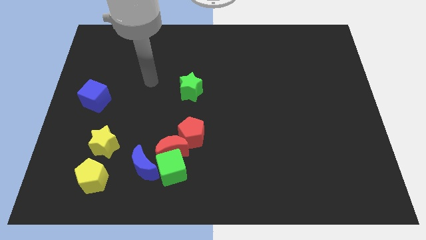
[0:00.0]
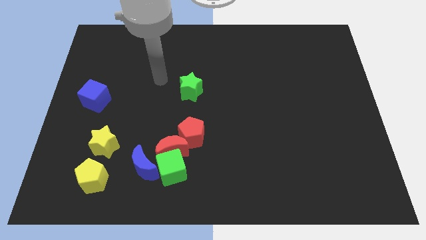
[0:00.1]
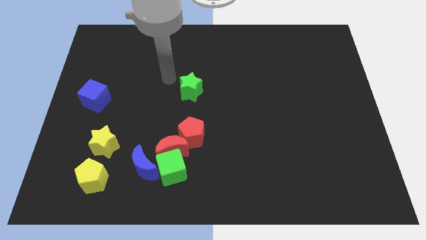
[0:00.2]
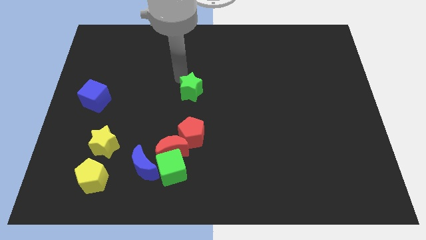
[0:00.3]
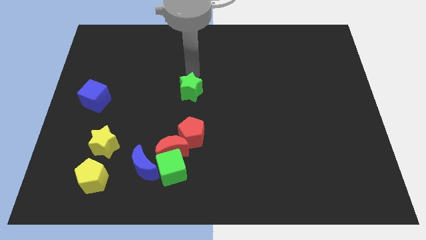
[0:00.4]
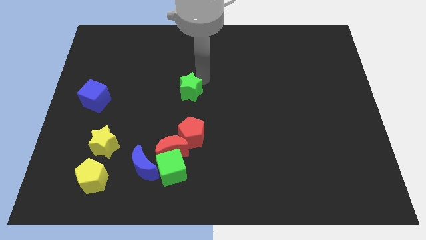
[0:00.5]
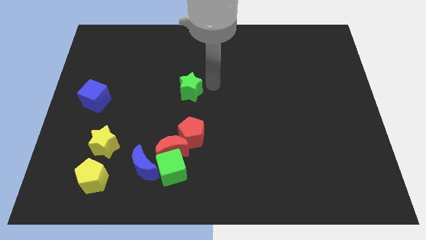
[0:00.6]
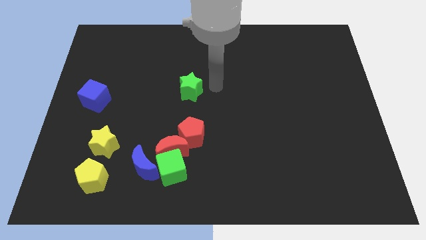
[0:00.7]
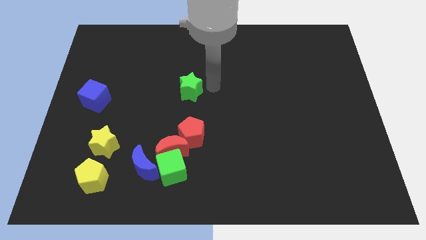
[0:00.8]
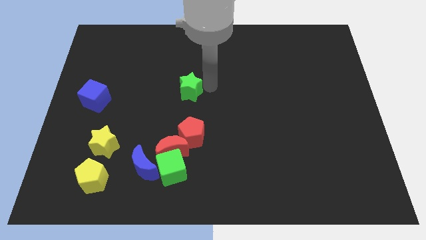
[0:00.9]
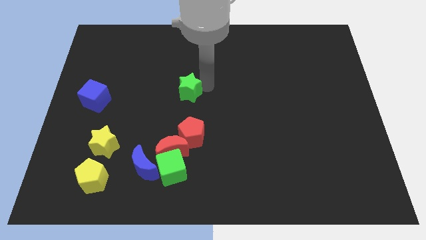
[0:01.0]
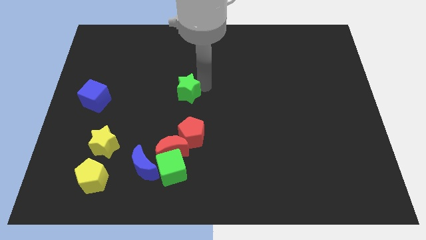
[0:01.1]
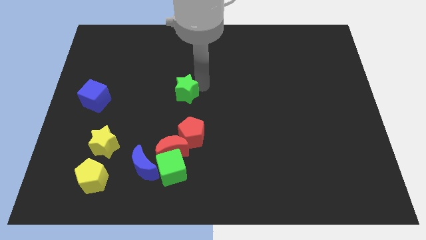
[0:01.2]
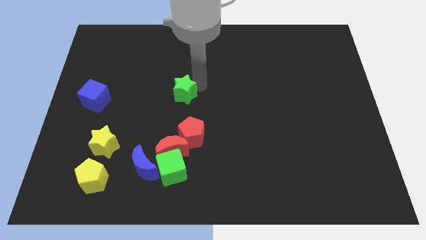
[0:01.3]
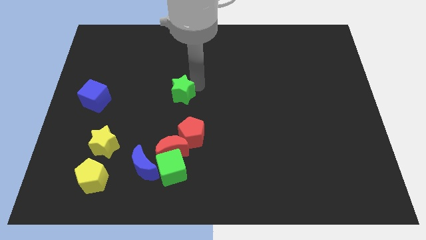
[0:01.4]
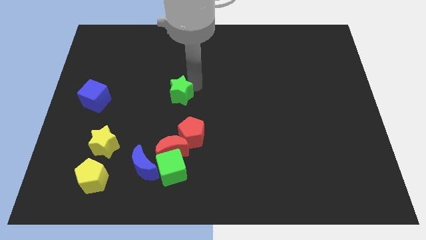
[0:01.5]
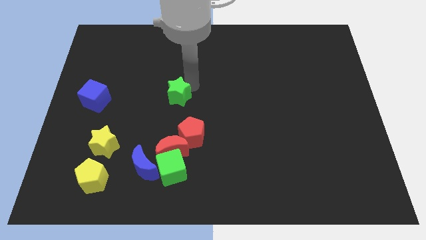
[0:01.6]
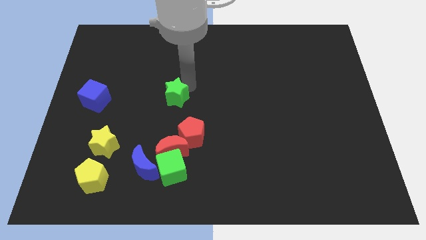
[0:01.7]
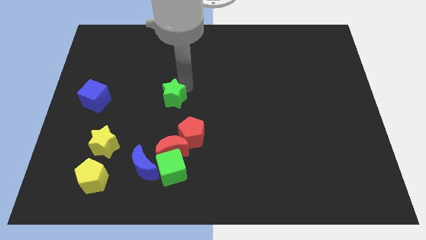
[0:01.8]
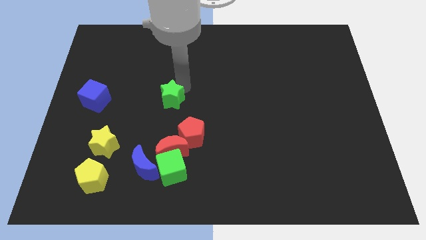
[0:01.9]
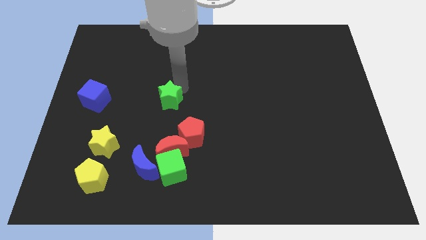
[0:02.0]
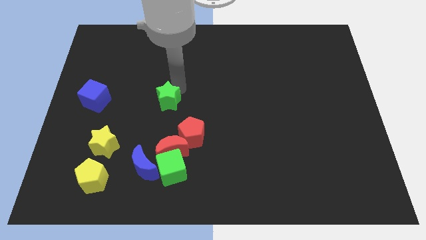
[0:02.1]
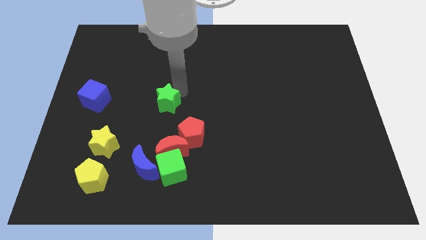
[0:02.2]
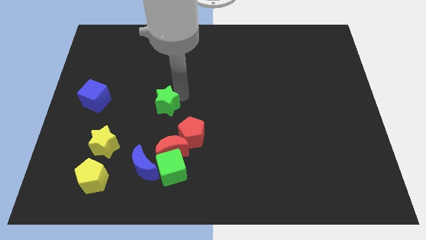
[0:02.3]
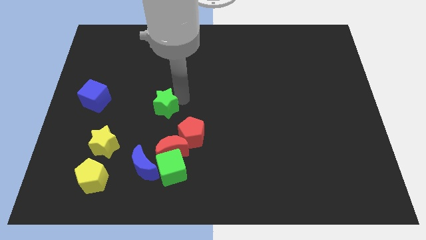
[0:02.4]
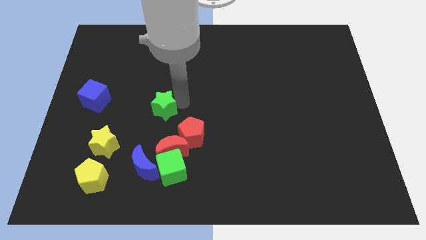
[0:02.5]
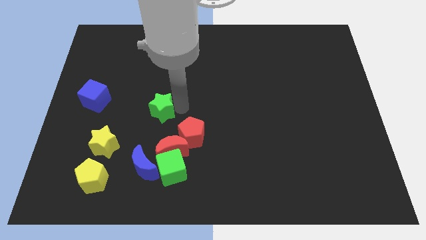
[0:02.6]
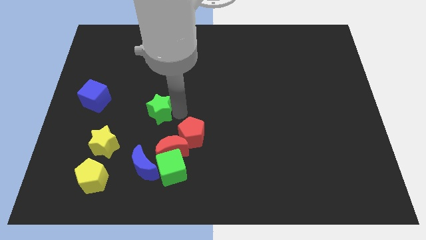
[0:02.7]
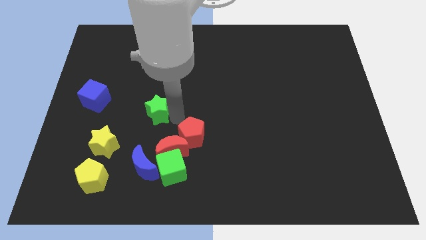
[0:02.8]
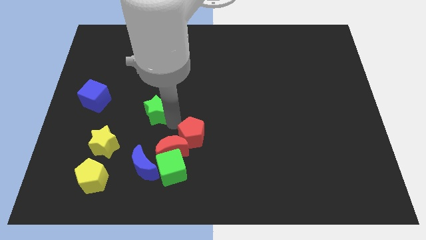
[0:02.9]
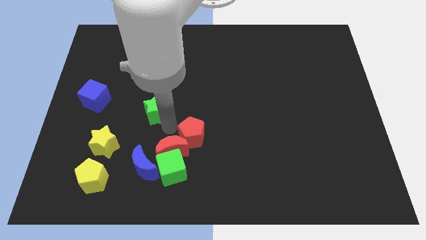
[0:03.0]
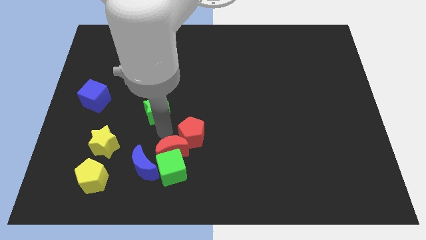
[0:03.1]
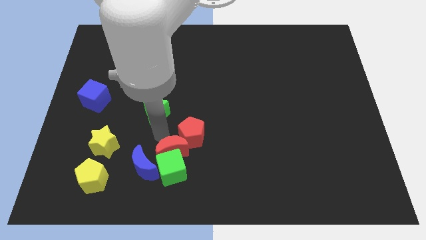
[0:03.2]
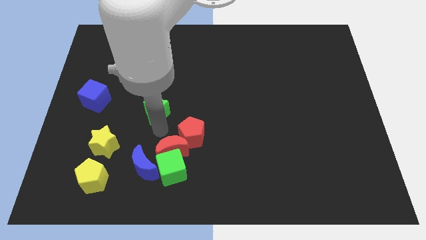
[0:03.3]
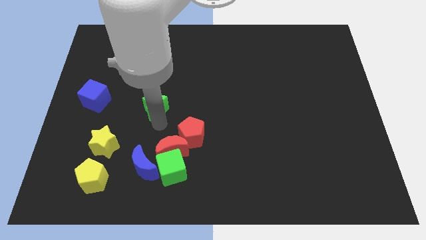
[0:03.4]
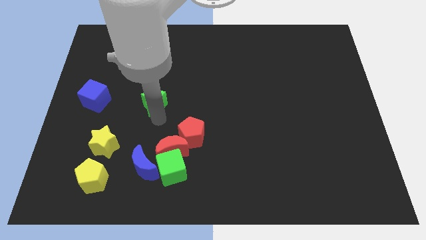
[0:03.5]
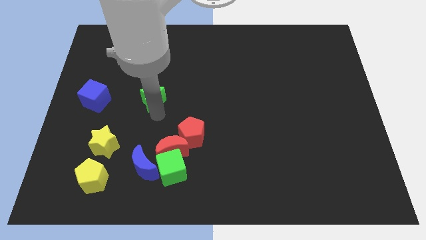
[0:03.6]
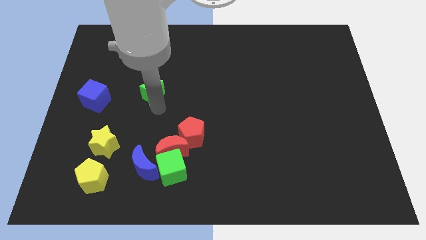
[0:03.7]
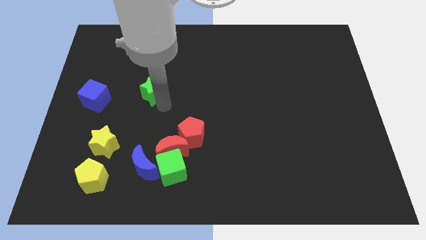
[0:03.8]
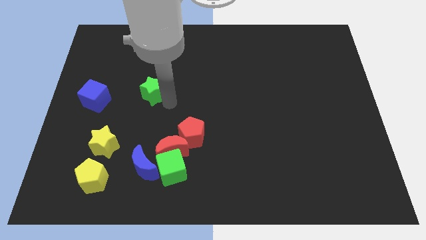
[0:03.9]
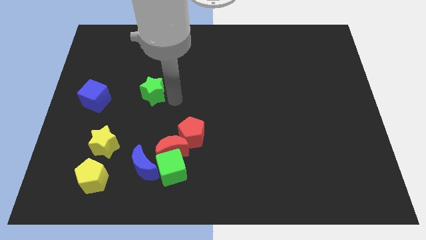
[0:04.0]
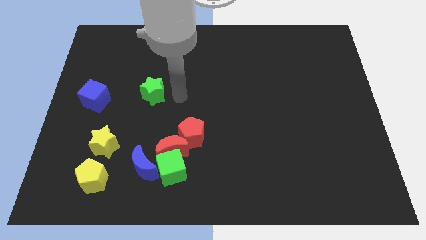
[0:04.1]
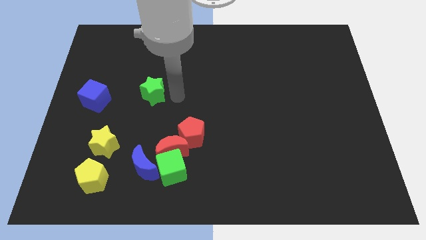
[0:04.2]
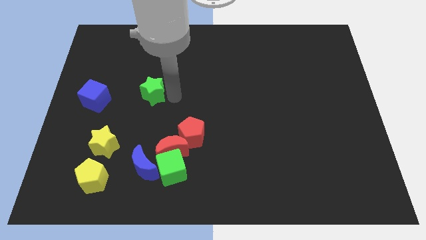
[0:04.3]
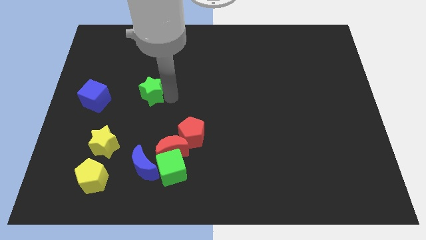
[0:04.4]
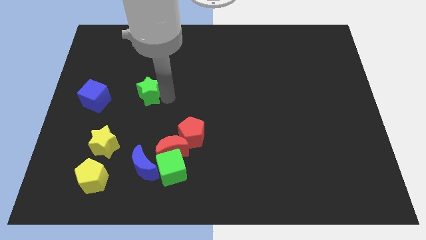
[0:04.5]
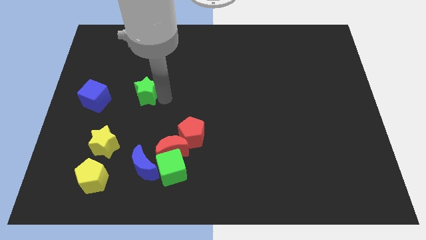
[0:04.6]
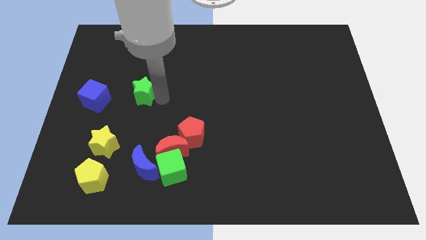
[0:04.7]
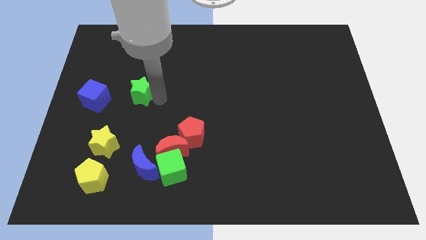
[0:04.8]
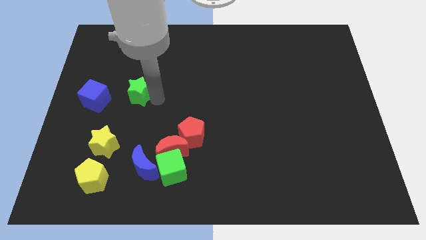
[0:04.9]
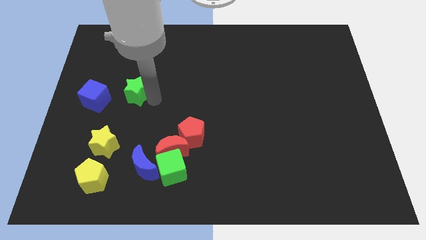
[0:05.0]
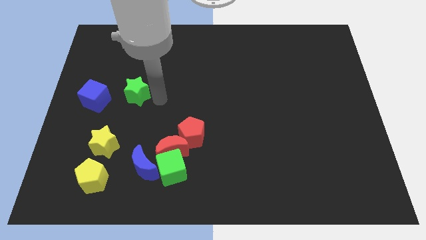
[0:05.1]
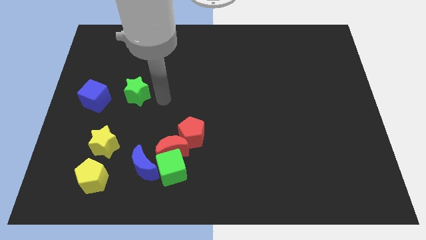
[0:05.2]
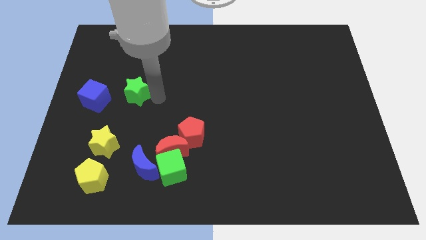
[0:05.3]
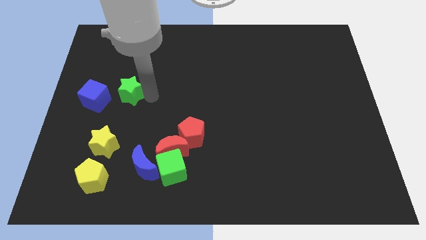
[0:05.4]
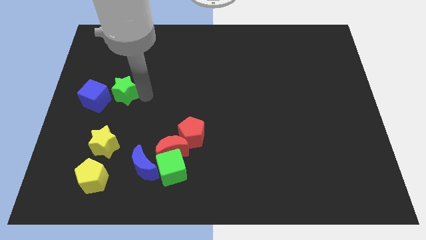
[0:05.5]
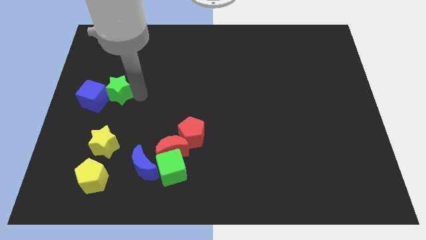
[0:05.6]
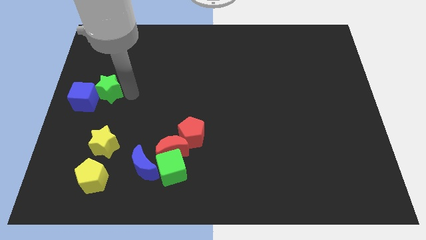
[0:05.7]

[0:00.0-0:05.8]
put the green star to the left side of the board

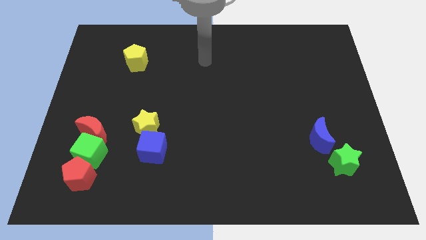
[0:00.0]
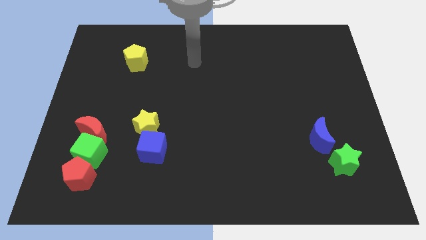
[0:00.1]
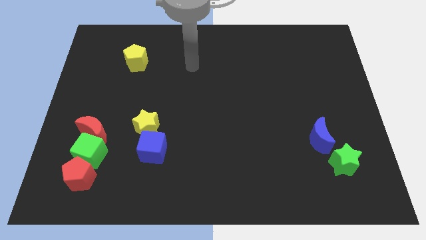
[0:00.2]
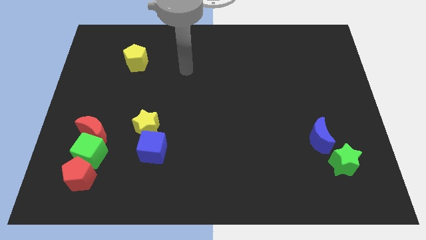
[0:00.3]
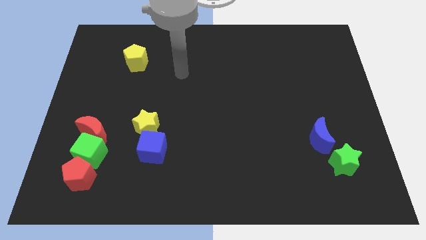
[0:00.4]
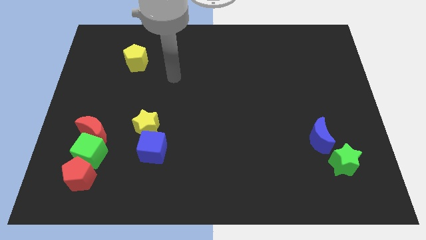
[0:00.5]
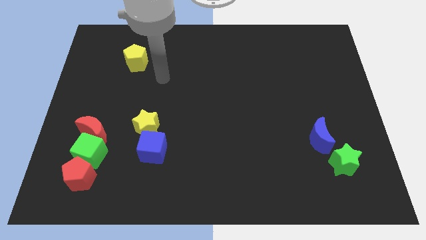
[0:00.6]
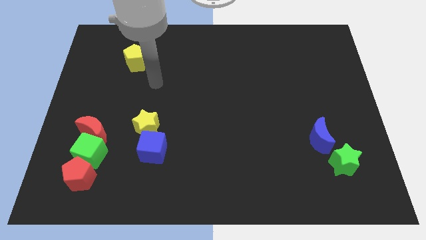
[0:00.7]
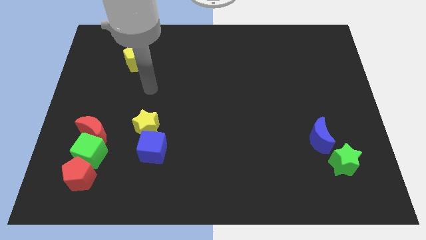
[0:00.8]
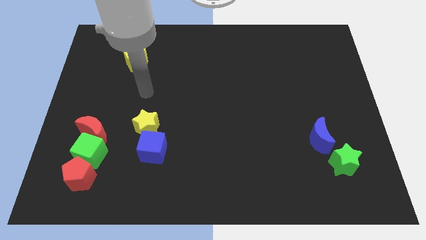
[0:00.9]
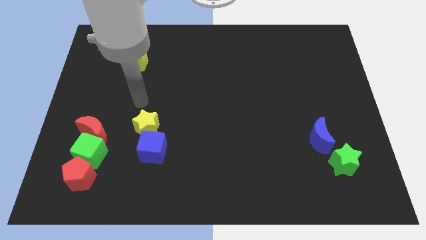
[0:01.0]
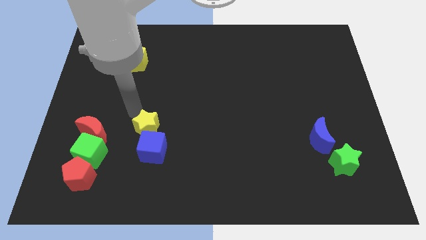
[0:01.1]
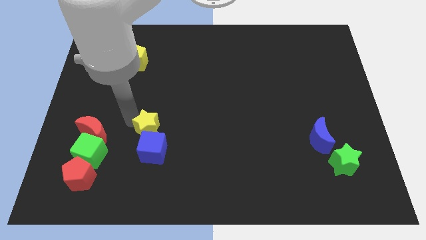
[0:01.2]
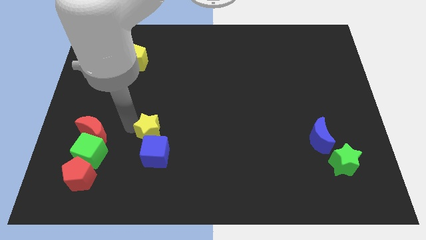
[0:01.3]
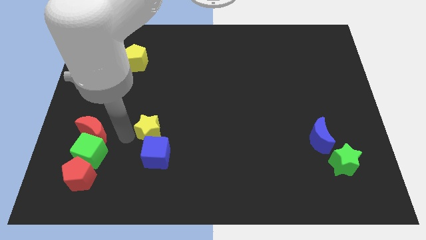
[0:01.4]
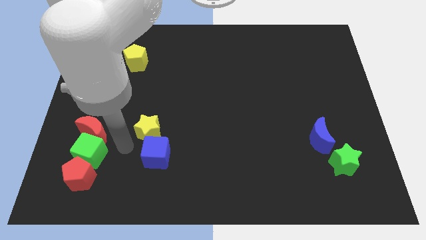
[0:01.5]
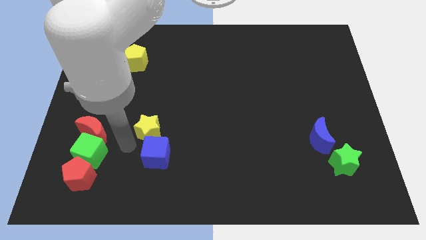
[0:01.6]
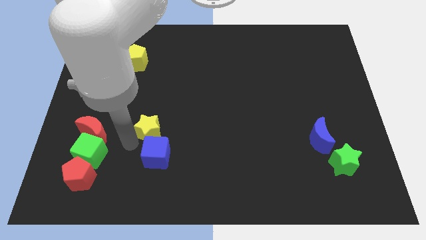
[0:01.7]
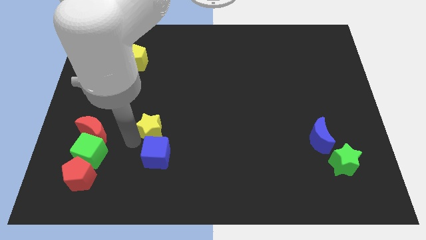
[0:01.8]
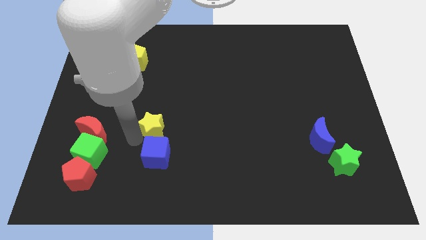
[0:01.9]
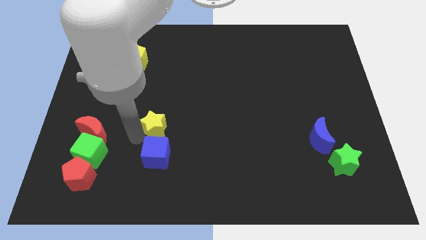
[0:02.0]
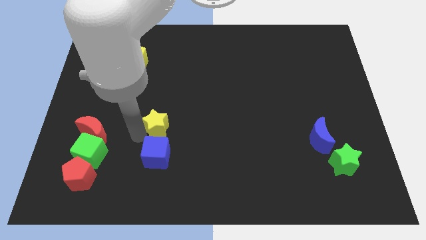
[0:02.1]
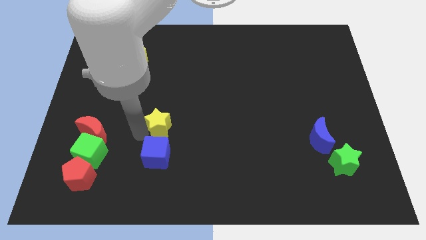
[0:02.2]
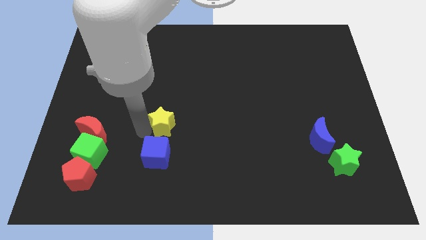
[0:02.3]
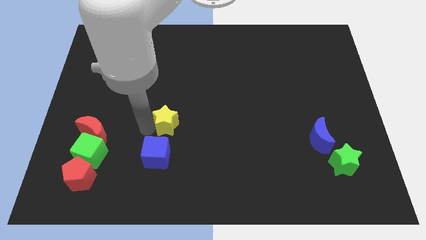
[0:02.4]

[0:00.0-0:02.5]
put the yellow star to the middle of the board
